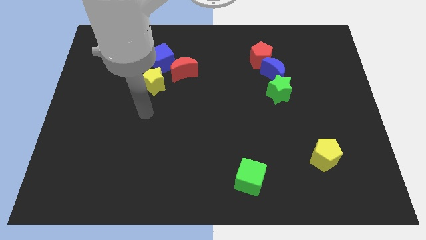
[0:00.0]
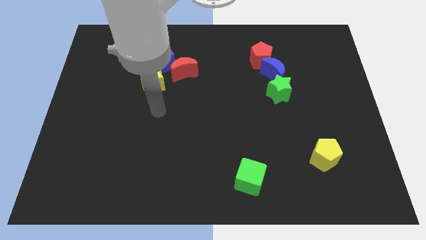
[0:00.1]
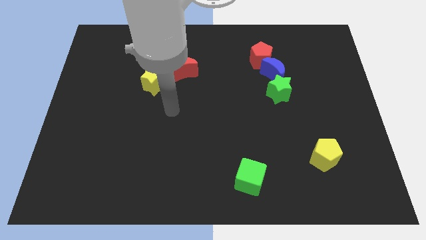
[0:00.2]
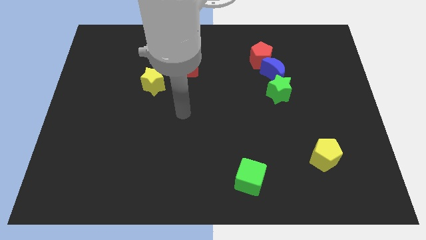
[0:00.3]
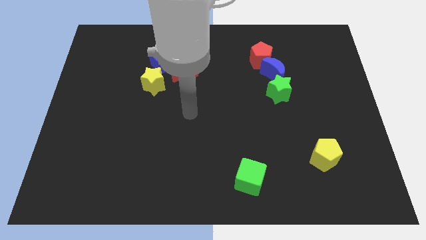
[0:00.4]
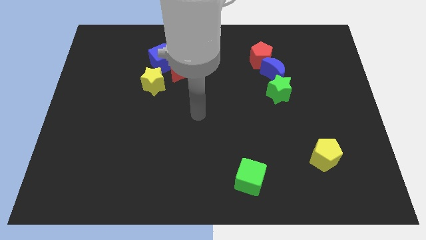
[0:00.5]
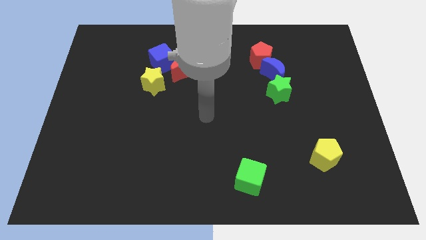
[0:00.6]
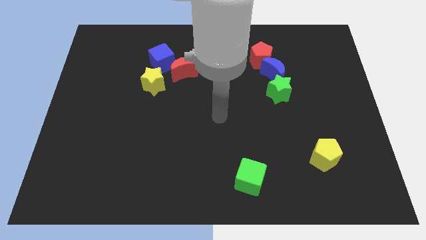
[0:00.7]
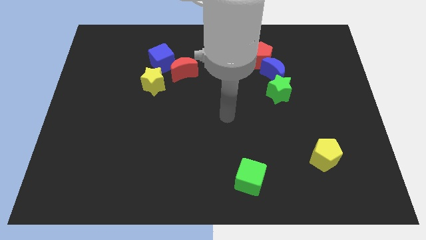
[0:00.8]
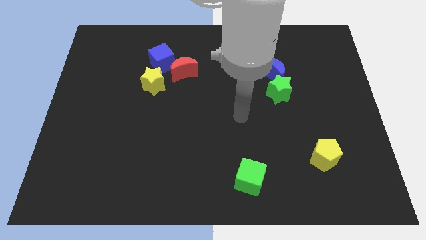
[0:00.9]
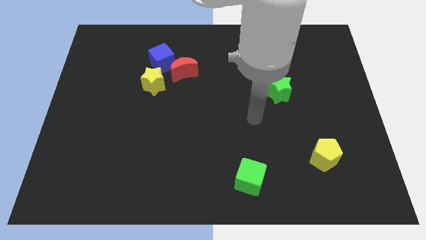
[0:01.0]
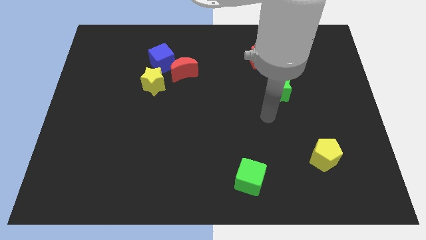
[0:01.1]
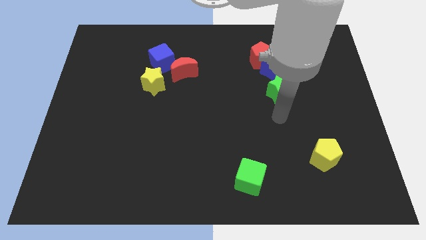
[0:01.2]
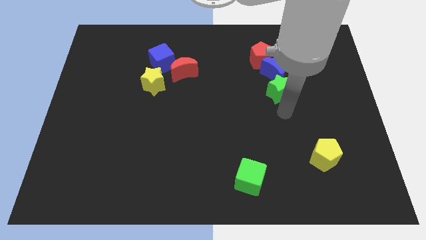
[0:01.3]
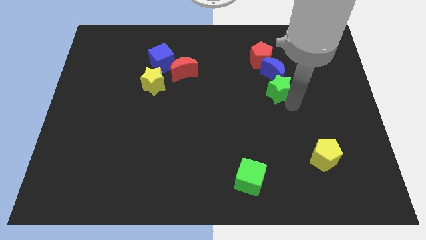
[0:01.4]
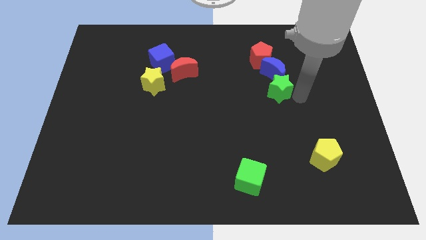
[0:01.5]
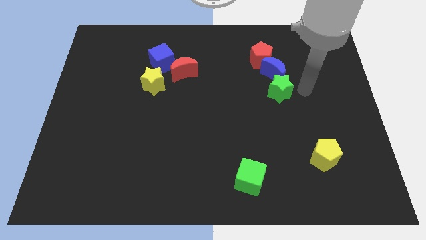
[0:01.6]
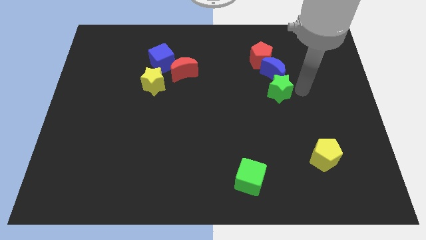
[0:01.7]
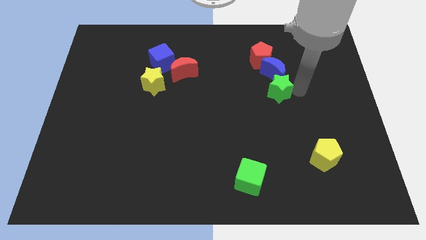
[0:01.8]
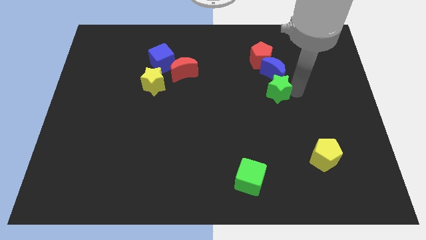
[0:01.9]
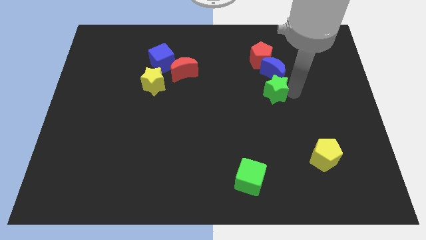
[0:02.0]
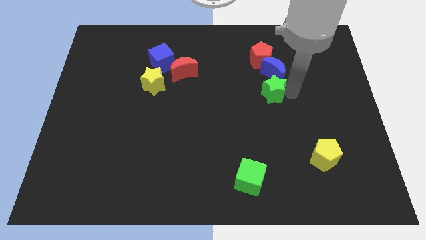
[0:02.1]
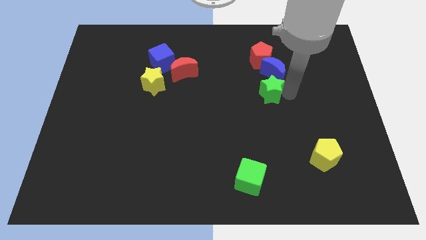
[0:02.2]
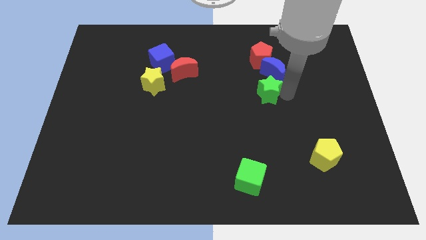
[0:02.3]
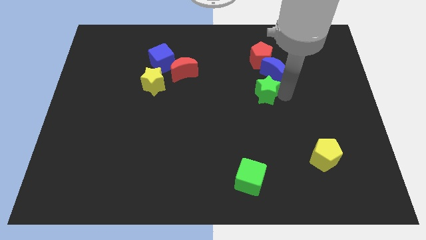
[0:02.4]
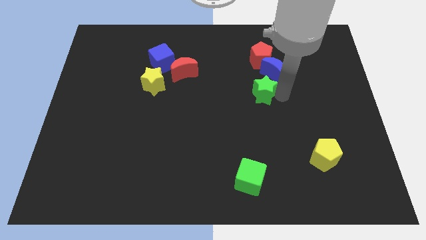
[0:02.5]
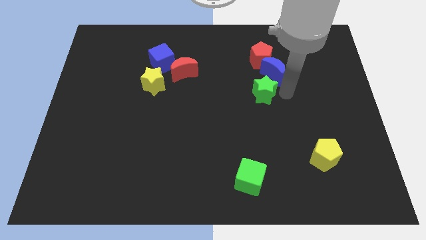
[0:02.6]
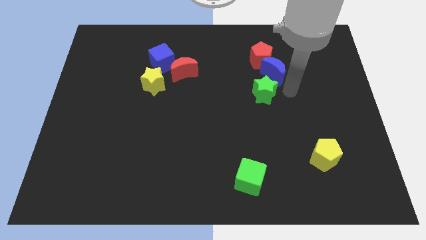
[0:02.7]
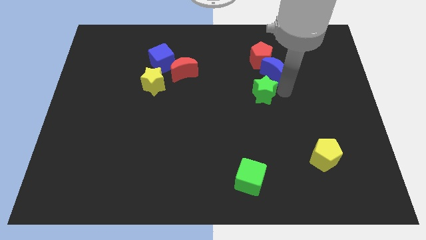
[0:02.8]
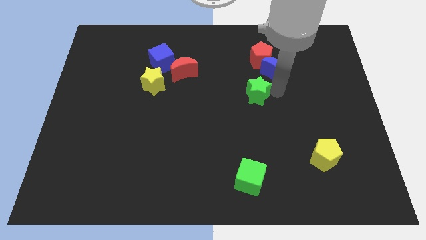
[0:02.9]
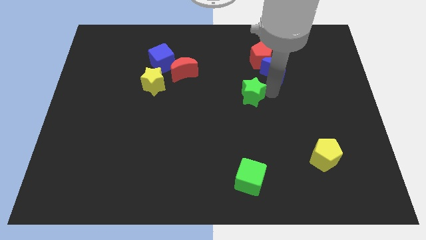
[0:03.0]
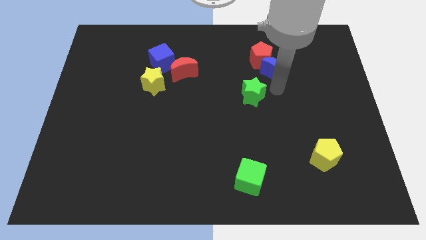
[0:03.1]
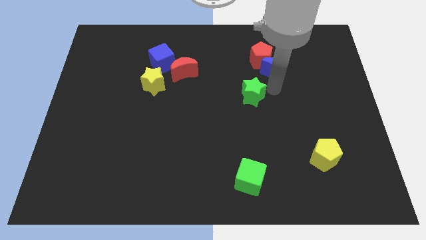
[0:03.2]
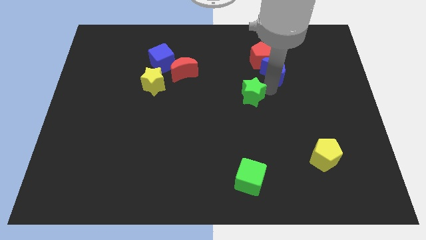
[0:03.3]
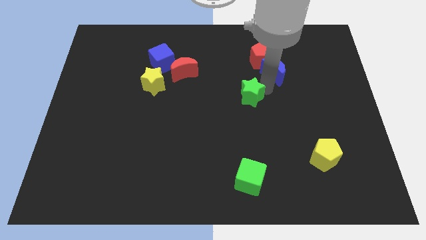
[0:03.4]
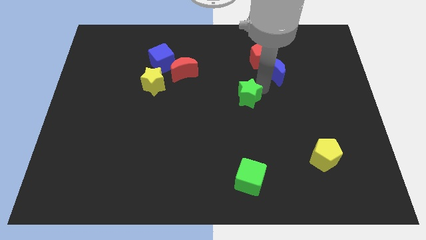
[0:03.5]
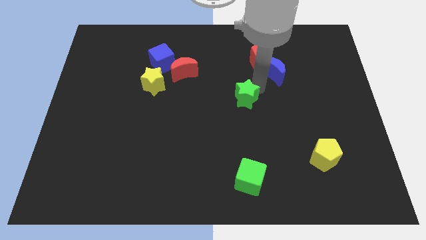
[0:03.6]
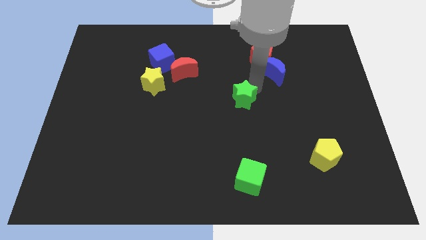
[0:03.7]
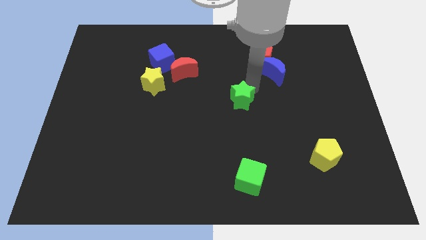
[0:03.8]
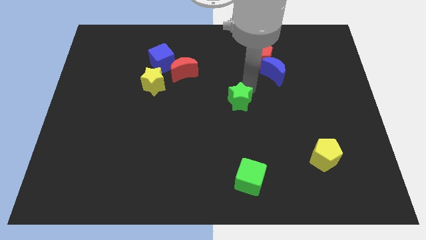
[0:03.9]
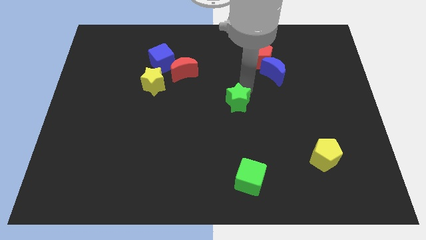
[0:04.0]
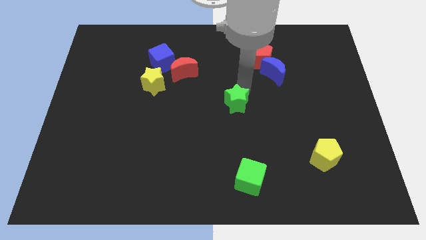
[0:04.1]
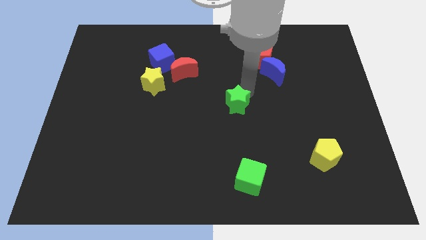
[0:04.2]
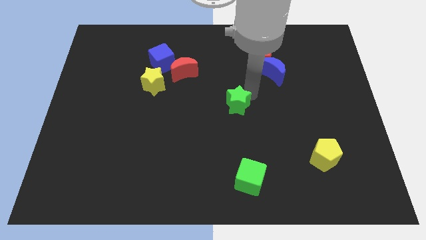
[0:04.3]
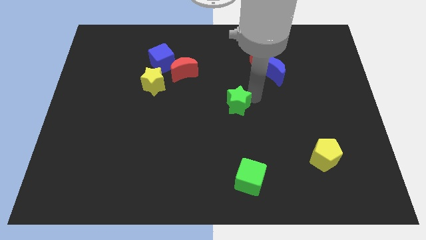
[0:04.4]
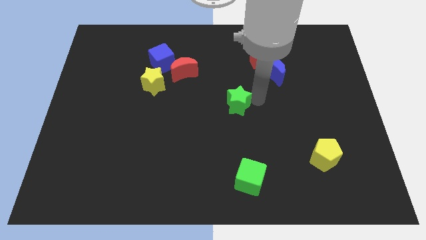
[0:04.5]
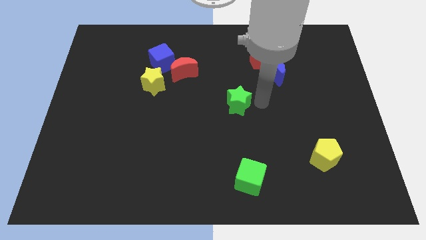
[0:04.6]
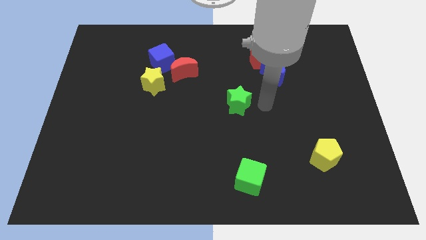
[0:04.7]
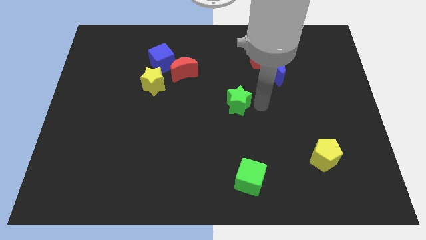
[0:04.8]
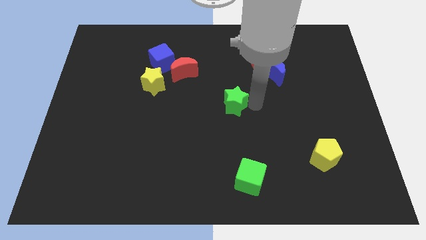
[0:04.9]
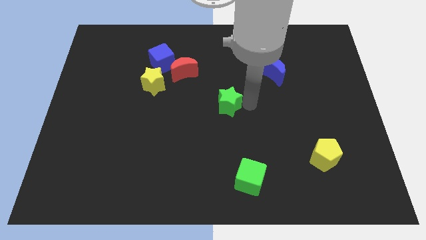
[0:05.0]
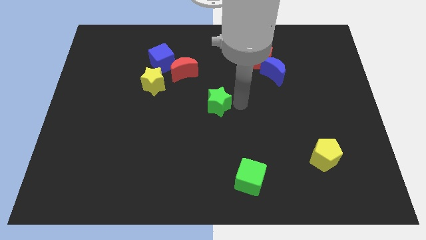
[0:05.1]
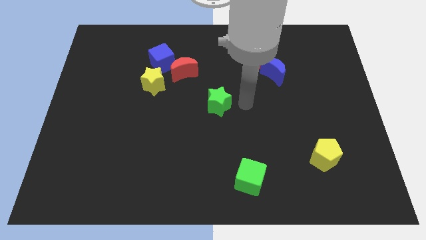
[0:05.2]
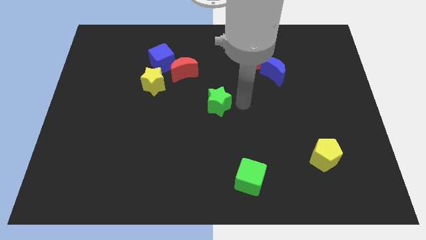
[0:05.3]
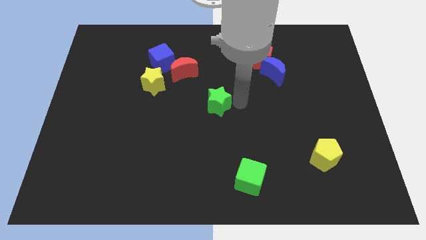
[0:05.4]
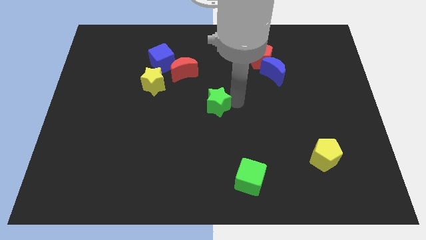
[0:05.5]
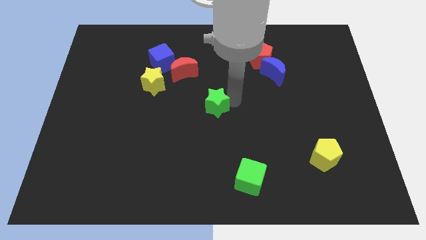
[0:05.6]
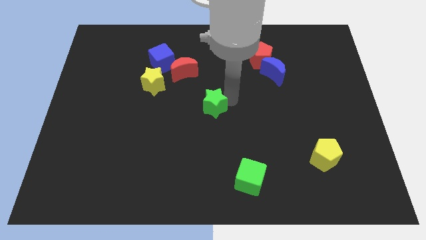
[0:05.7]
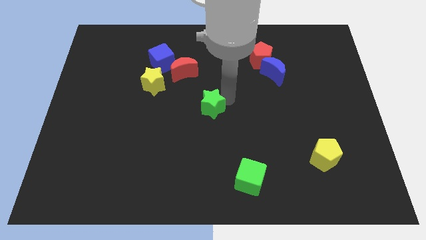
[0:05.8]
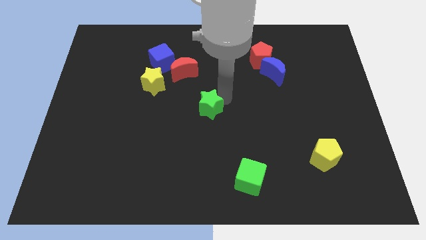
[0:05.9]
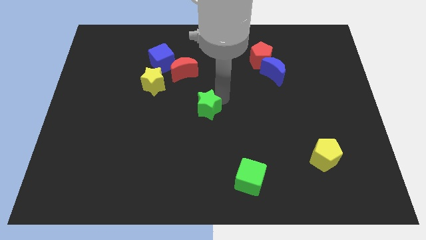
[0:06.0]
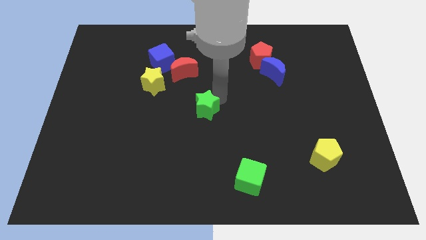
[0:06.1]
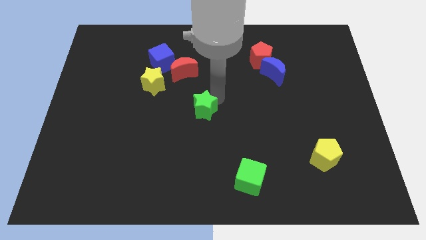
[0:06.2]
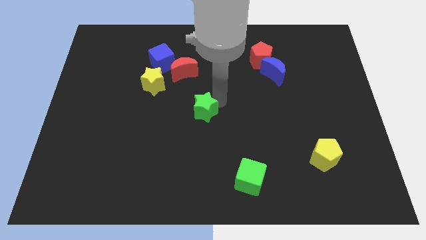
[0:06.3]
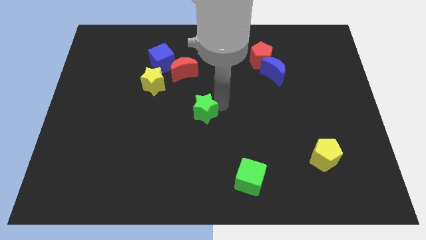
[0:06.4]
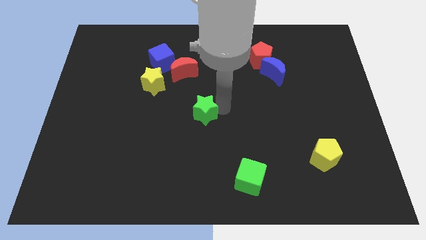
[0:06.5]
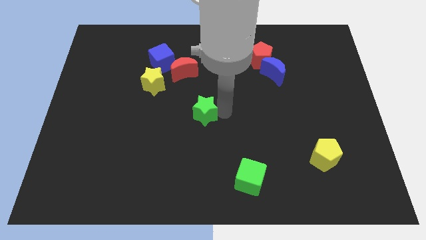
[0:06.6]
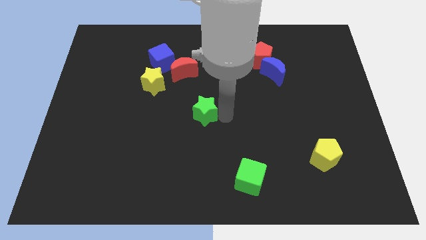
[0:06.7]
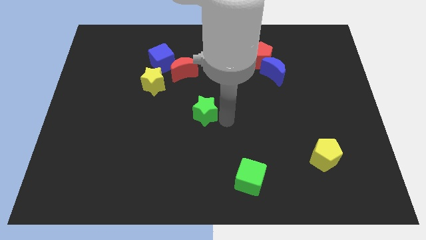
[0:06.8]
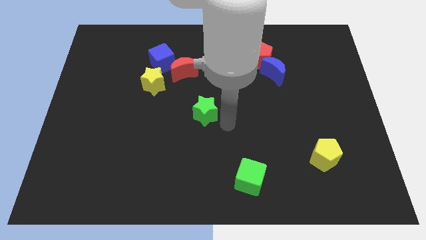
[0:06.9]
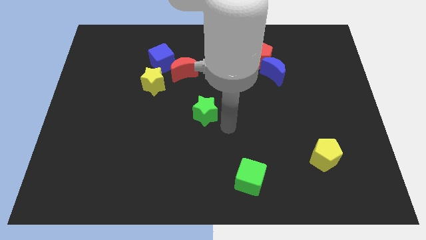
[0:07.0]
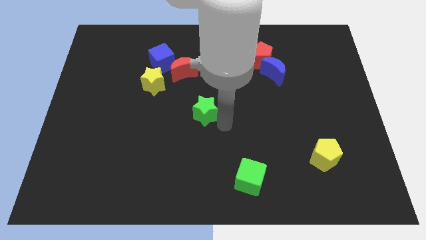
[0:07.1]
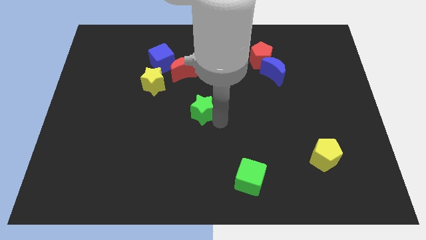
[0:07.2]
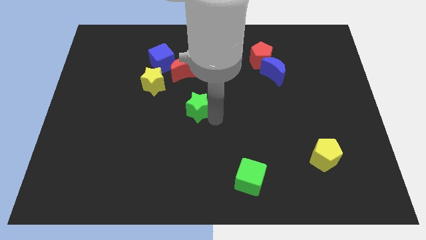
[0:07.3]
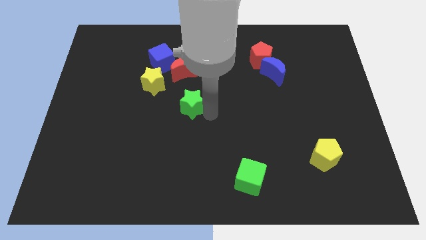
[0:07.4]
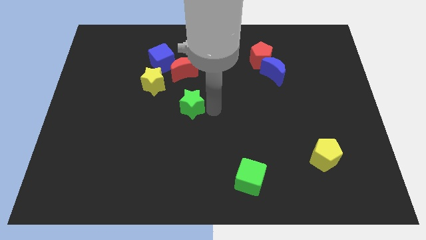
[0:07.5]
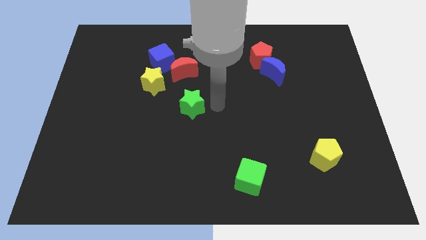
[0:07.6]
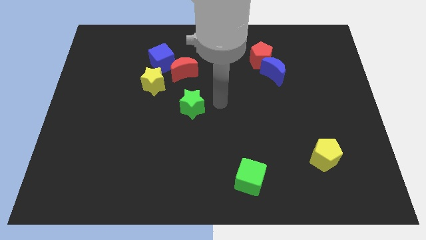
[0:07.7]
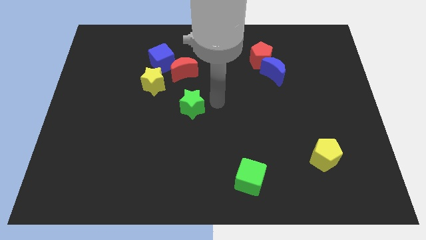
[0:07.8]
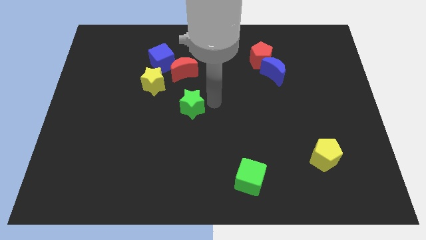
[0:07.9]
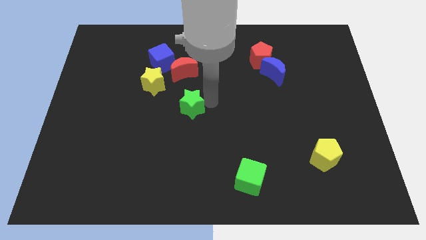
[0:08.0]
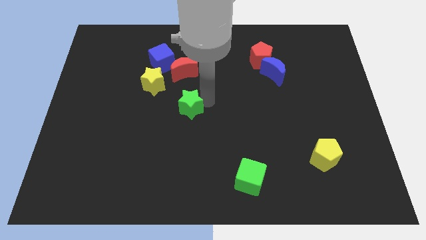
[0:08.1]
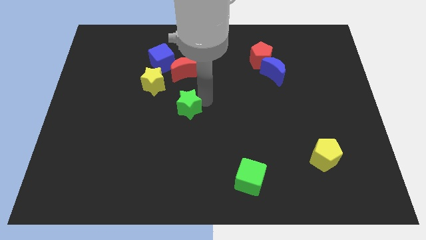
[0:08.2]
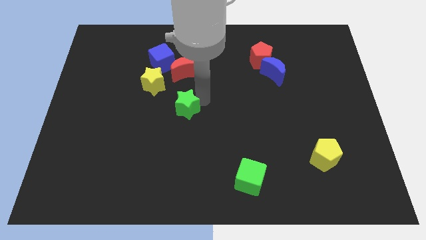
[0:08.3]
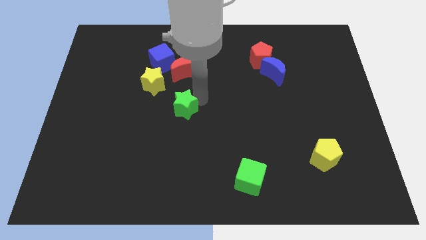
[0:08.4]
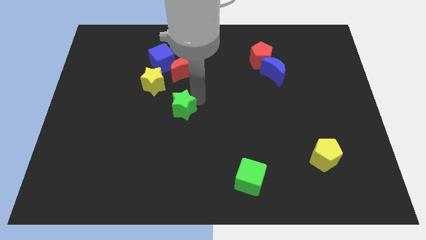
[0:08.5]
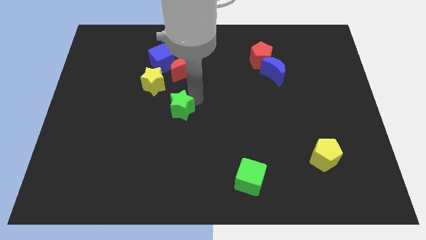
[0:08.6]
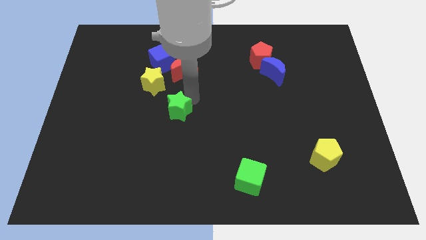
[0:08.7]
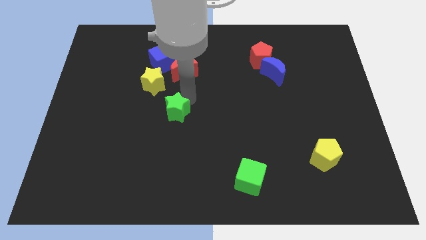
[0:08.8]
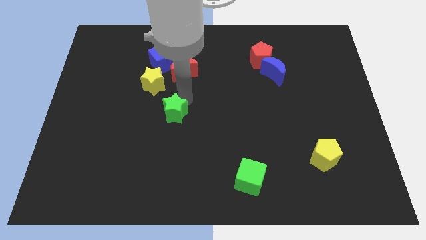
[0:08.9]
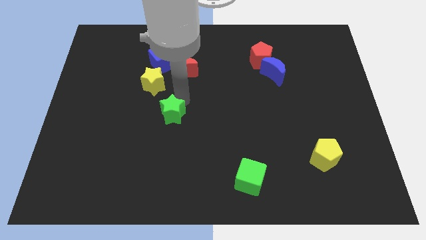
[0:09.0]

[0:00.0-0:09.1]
push the green star to the bottom of the yellow star
